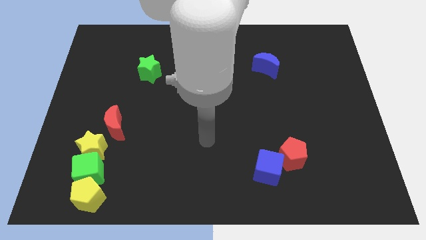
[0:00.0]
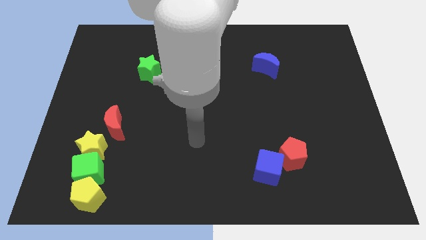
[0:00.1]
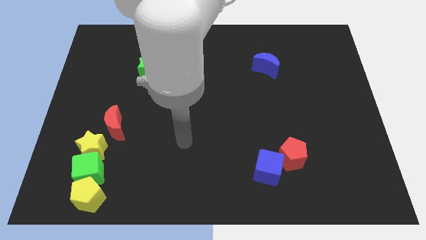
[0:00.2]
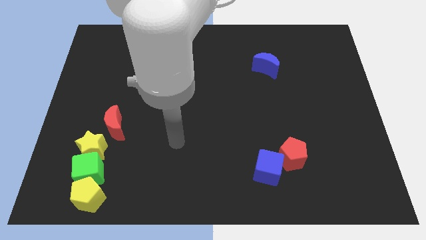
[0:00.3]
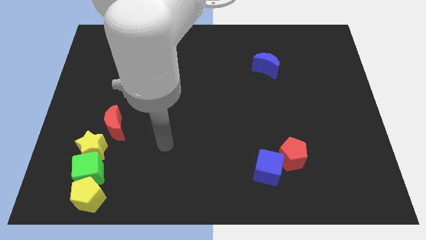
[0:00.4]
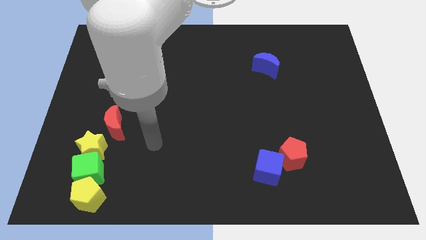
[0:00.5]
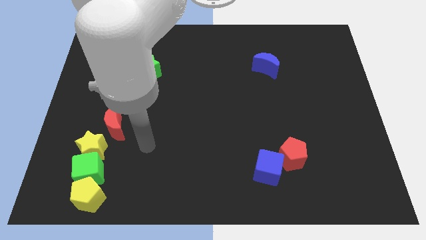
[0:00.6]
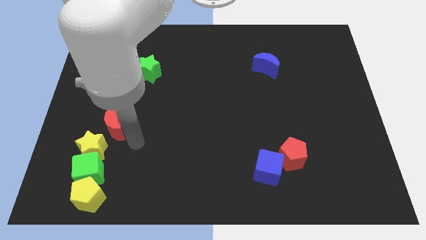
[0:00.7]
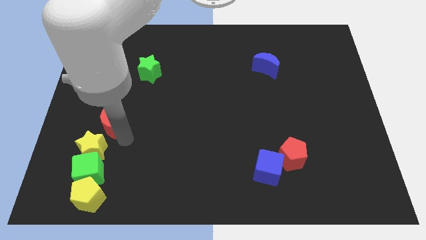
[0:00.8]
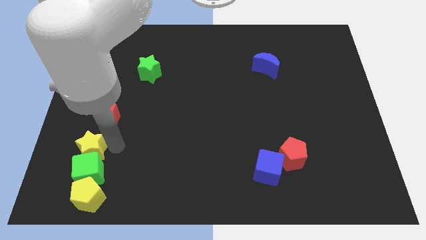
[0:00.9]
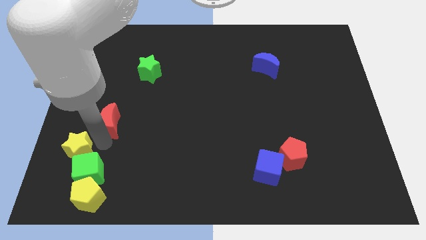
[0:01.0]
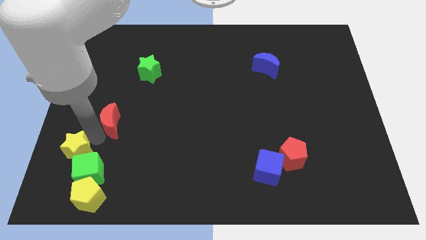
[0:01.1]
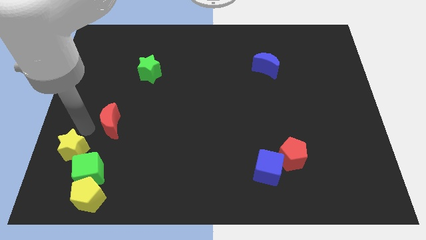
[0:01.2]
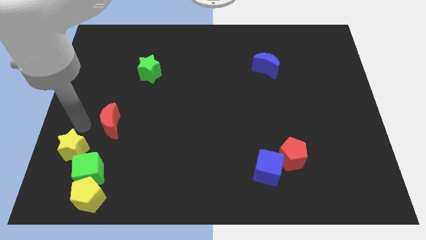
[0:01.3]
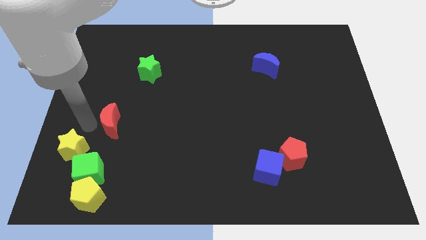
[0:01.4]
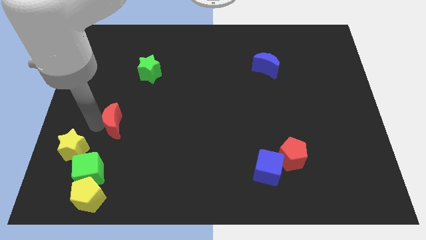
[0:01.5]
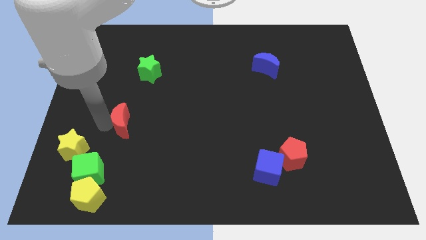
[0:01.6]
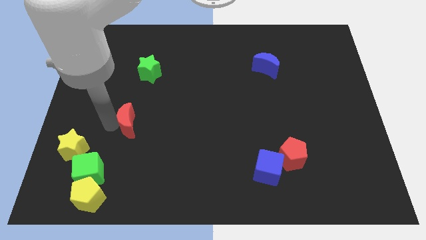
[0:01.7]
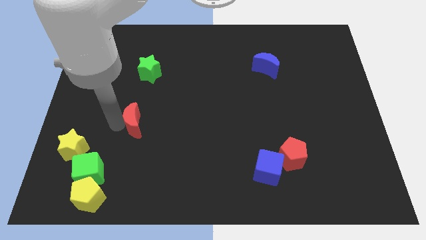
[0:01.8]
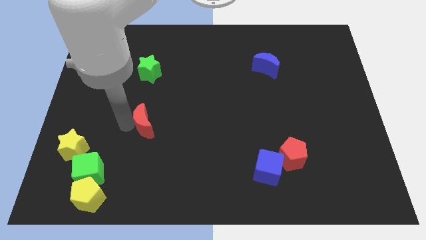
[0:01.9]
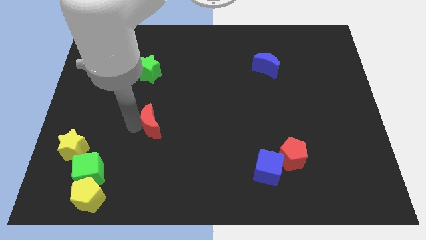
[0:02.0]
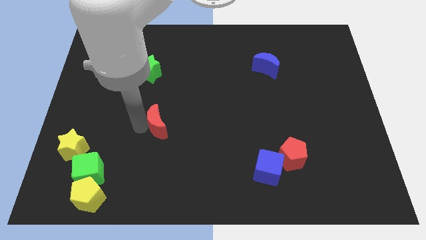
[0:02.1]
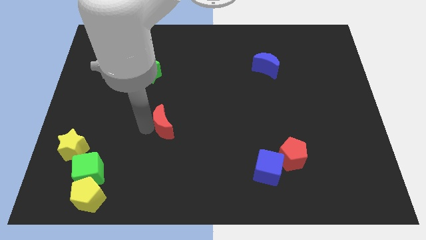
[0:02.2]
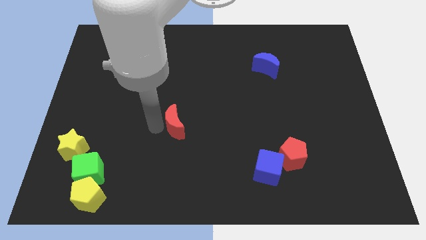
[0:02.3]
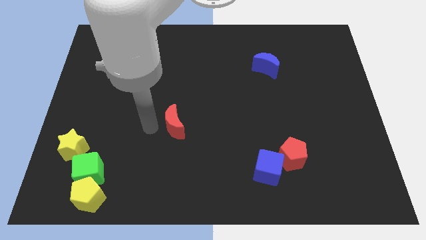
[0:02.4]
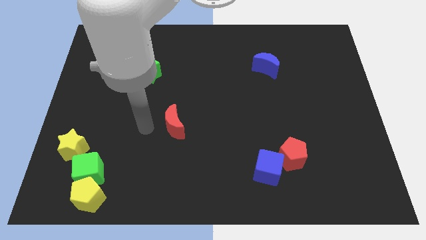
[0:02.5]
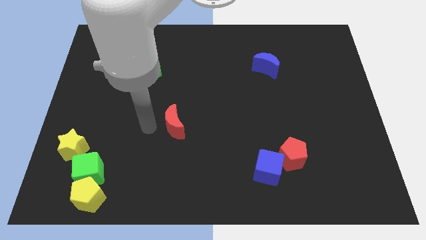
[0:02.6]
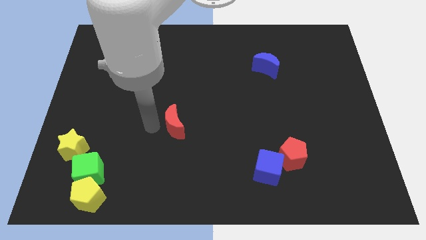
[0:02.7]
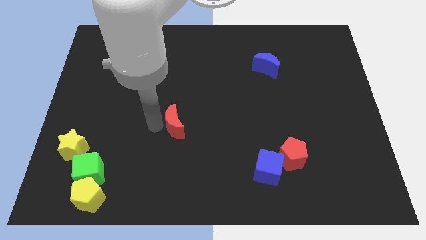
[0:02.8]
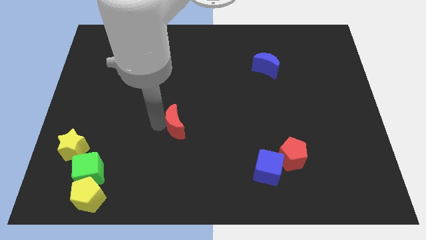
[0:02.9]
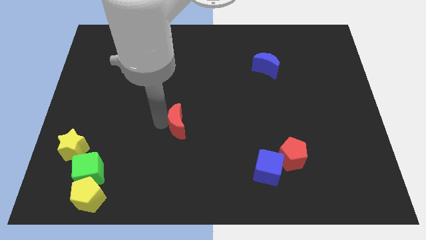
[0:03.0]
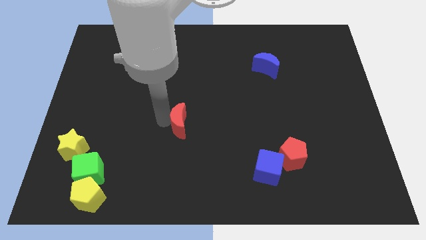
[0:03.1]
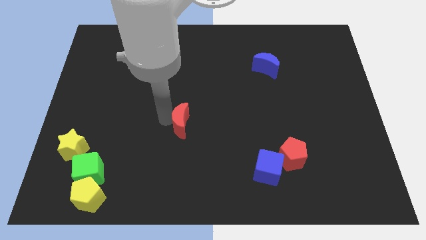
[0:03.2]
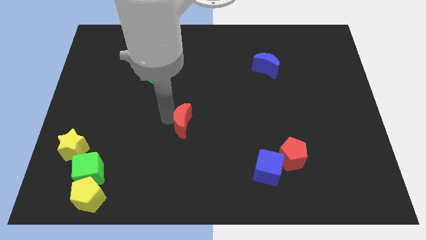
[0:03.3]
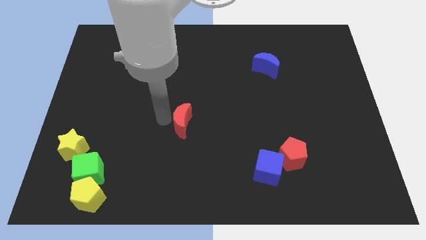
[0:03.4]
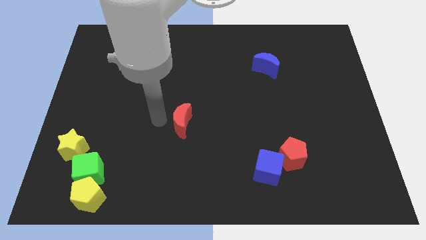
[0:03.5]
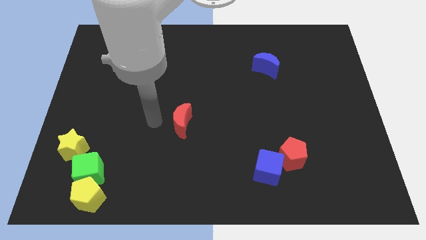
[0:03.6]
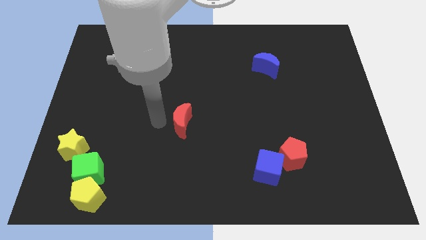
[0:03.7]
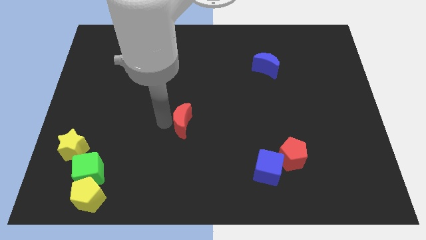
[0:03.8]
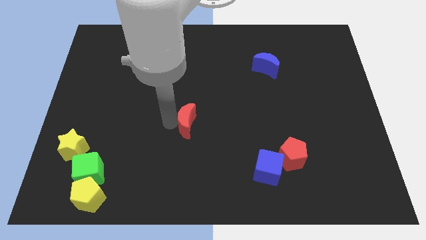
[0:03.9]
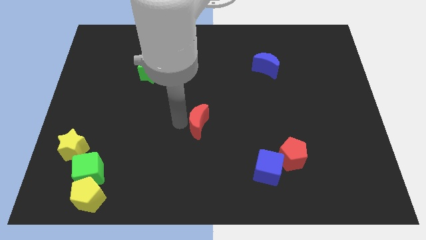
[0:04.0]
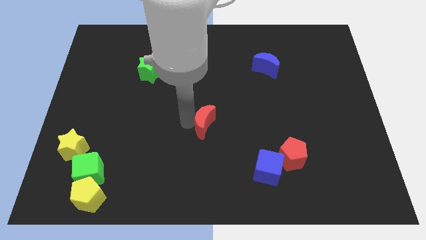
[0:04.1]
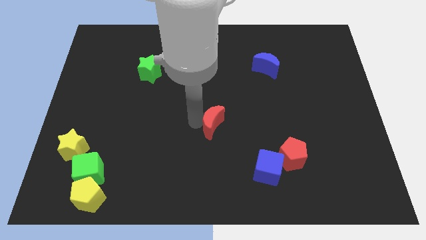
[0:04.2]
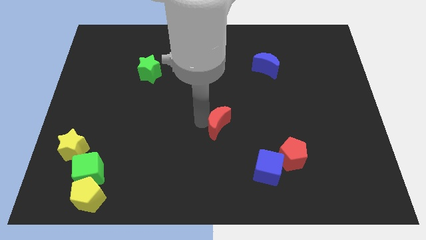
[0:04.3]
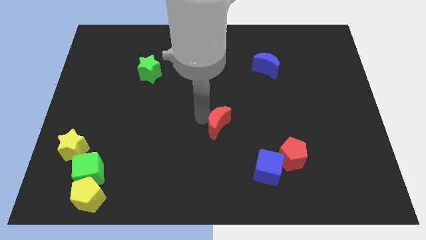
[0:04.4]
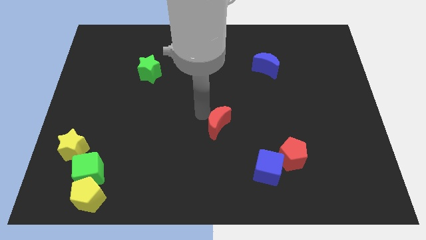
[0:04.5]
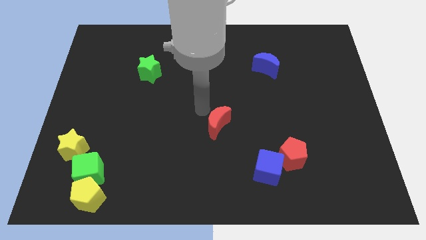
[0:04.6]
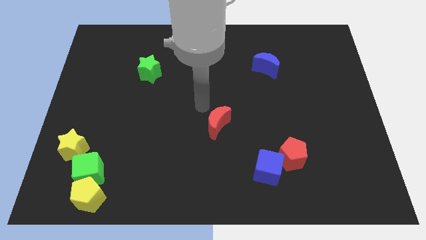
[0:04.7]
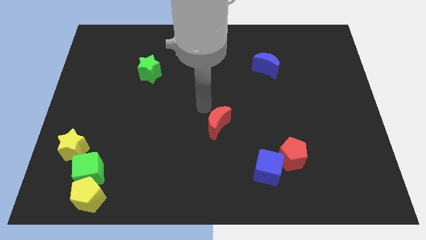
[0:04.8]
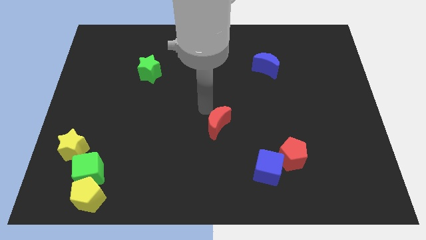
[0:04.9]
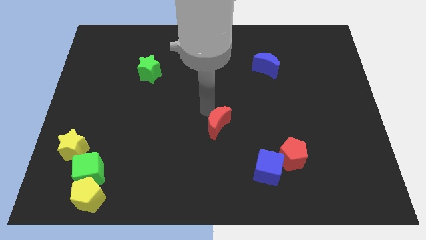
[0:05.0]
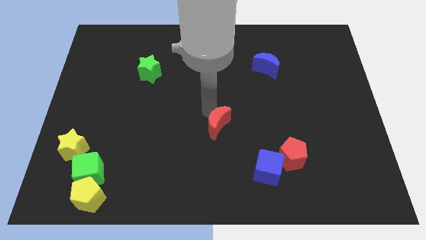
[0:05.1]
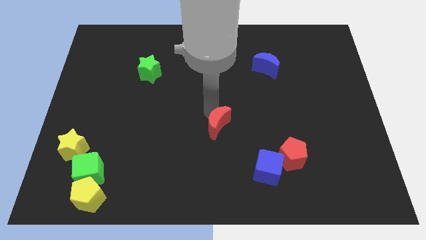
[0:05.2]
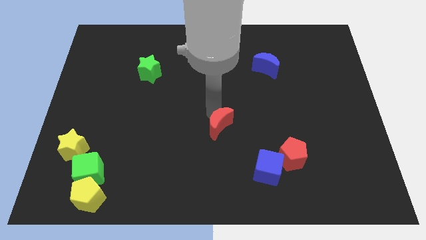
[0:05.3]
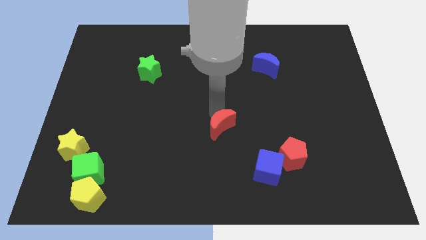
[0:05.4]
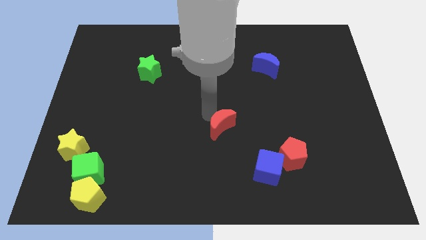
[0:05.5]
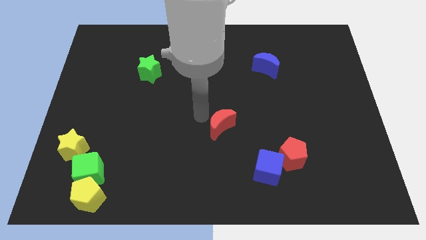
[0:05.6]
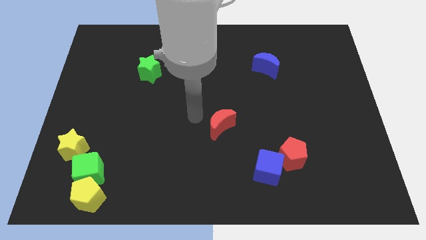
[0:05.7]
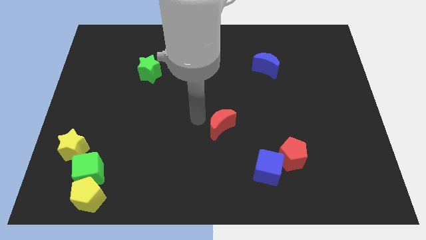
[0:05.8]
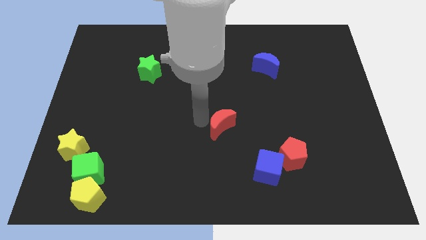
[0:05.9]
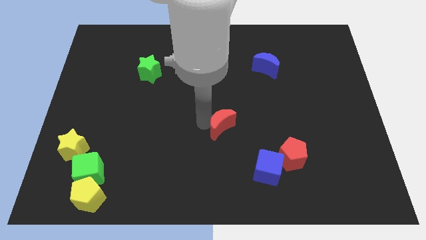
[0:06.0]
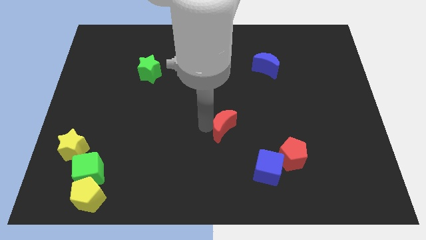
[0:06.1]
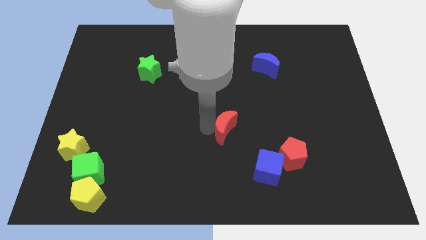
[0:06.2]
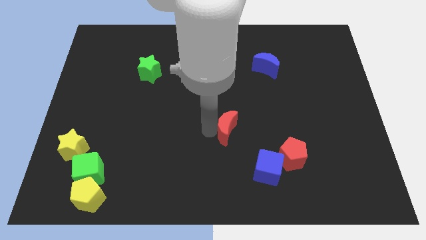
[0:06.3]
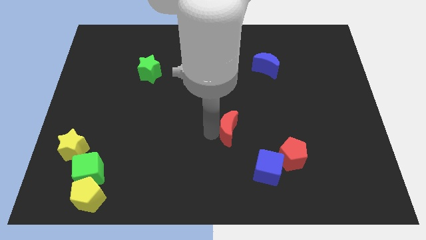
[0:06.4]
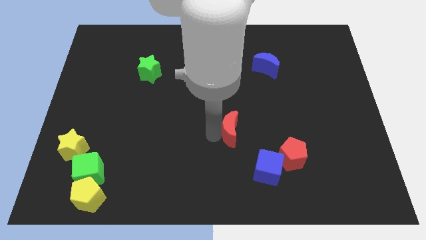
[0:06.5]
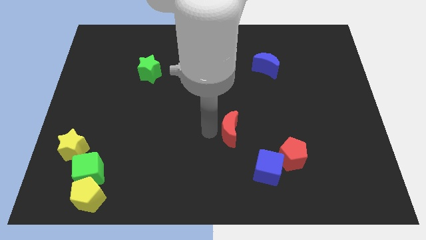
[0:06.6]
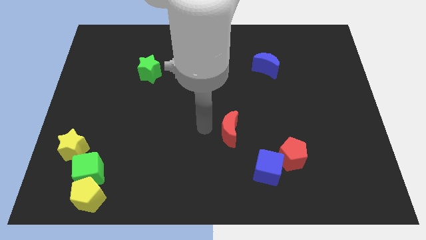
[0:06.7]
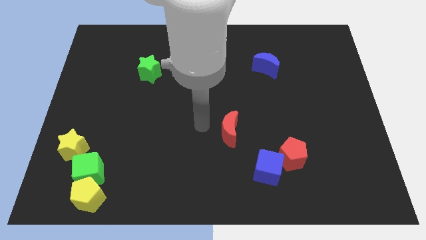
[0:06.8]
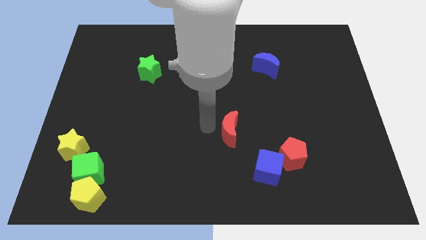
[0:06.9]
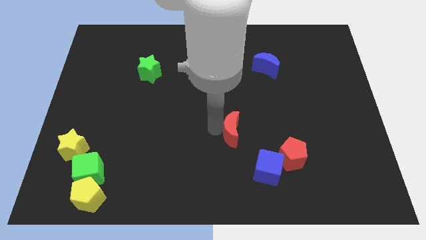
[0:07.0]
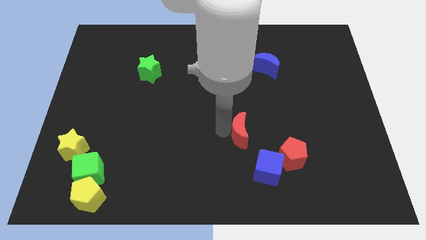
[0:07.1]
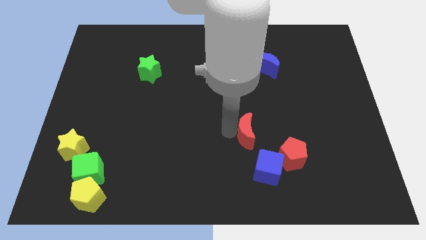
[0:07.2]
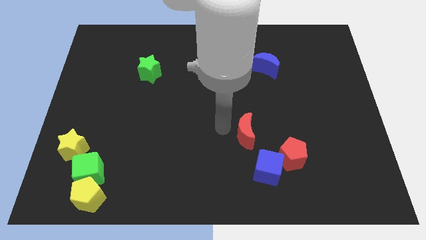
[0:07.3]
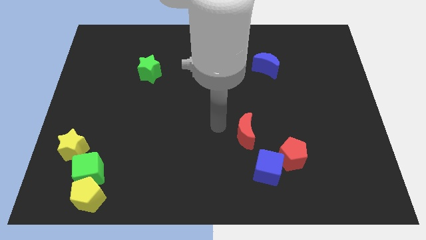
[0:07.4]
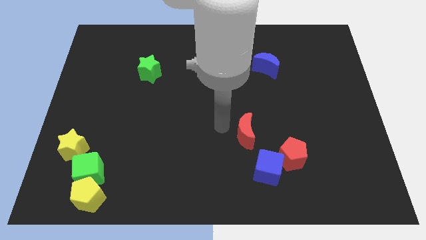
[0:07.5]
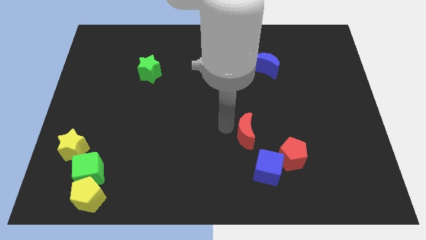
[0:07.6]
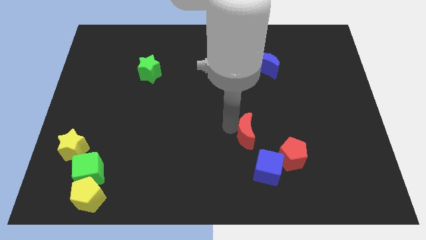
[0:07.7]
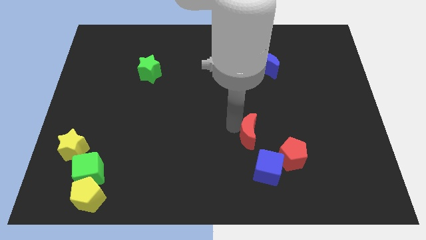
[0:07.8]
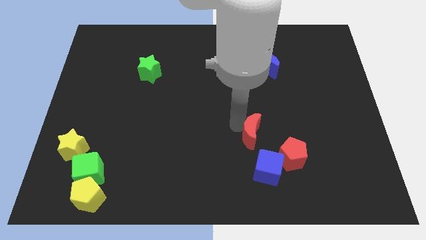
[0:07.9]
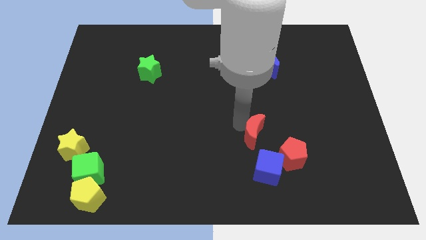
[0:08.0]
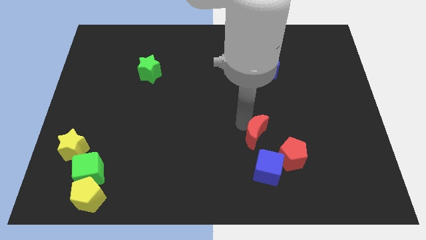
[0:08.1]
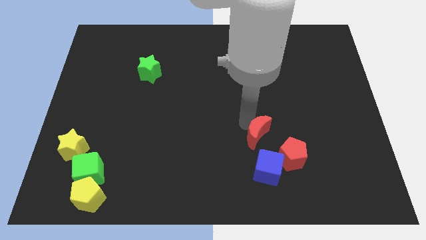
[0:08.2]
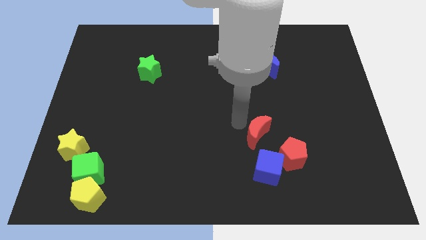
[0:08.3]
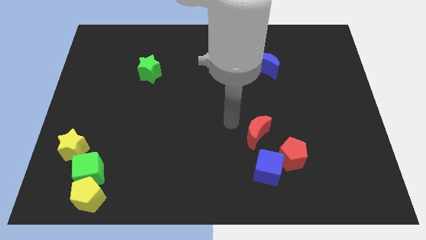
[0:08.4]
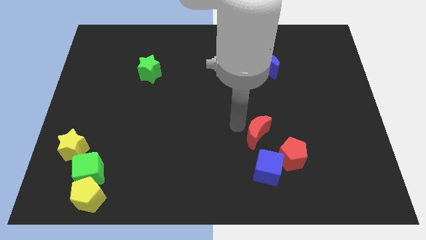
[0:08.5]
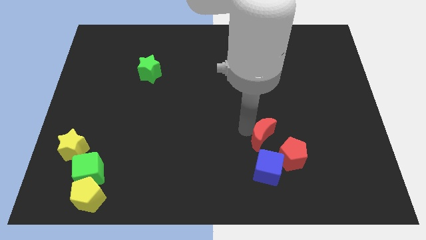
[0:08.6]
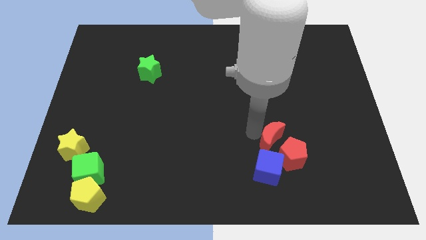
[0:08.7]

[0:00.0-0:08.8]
put the red moon to the top right of the blue cube
